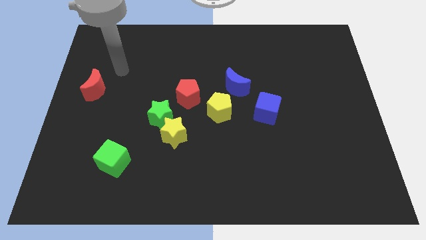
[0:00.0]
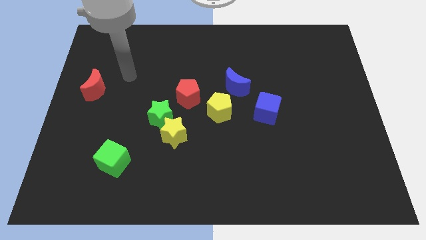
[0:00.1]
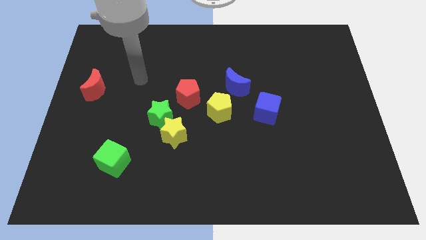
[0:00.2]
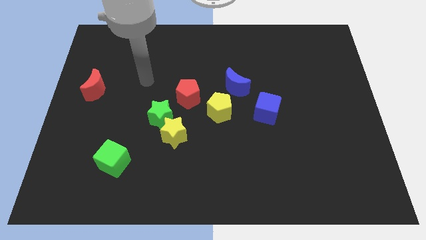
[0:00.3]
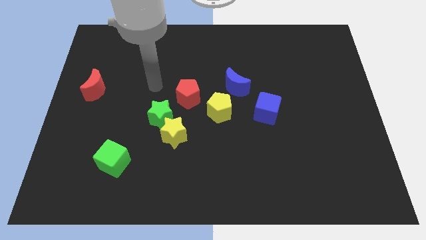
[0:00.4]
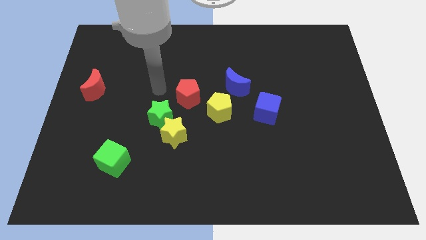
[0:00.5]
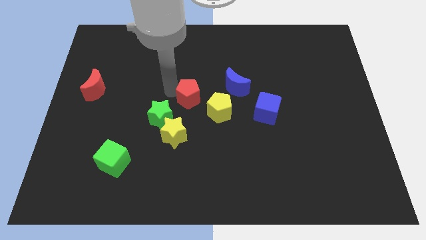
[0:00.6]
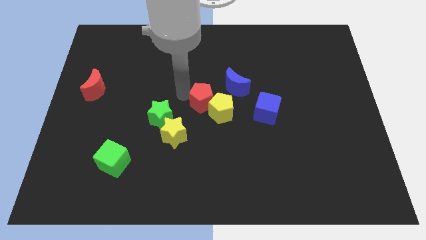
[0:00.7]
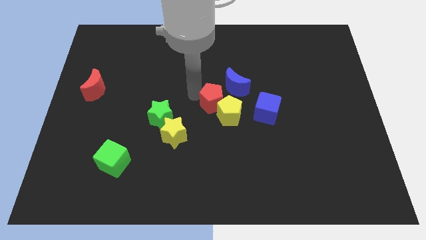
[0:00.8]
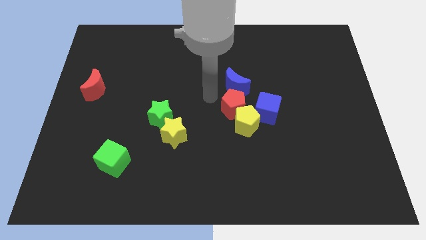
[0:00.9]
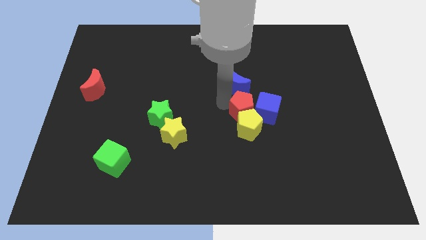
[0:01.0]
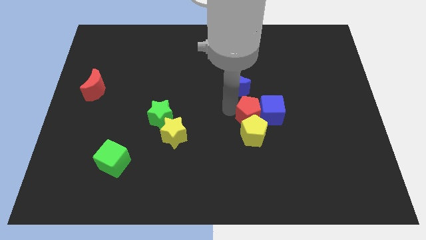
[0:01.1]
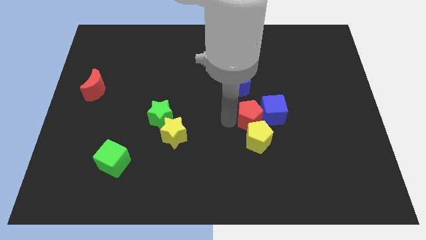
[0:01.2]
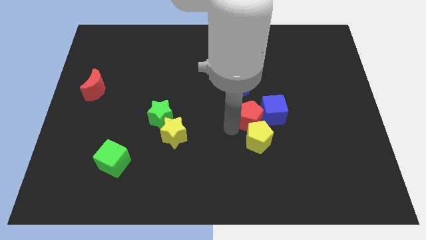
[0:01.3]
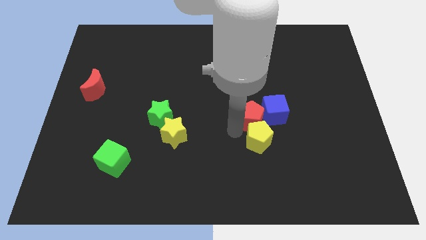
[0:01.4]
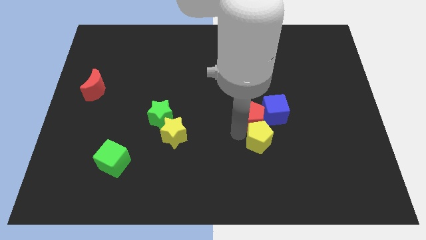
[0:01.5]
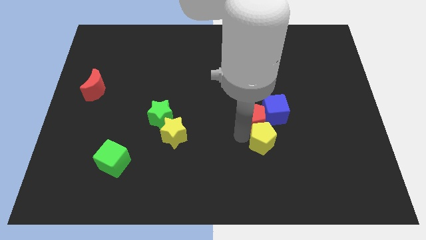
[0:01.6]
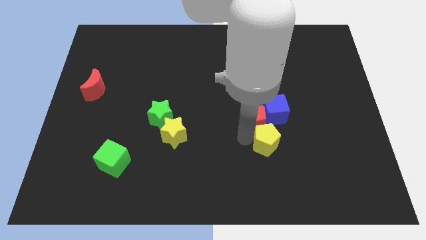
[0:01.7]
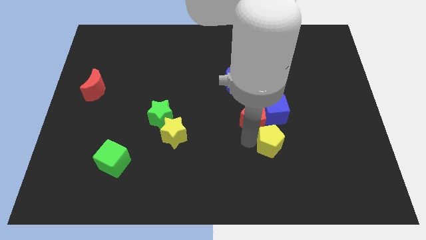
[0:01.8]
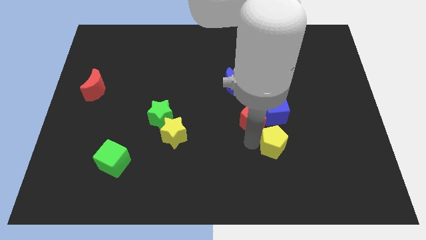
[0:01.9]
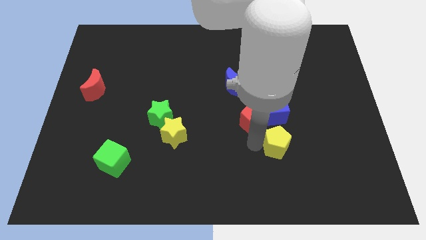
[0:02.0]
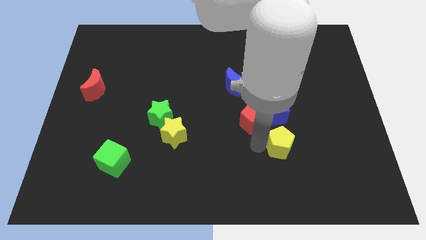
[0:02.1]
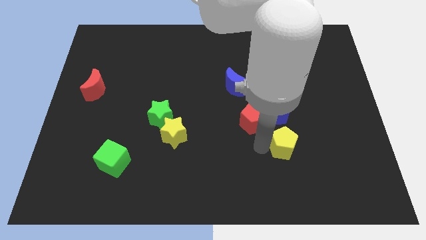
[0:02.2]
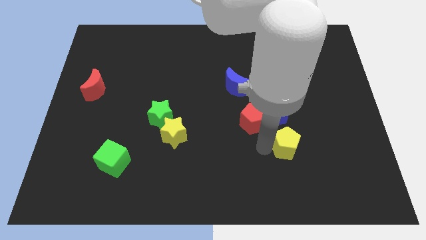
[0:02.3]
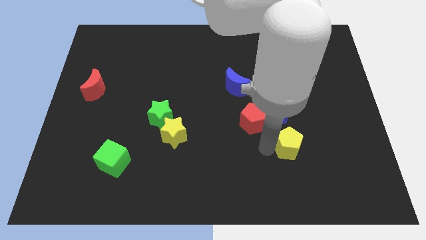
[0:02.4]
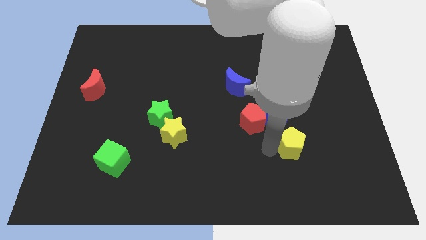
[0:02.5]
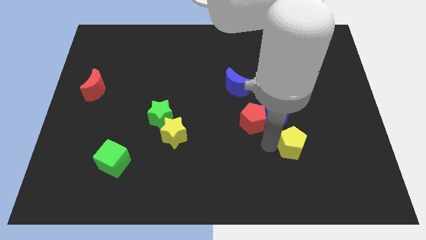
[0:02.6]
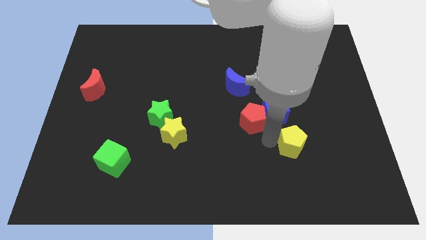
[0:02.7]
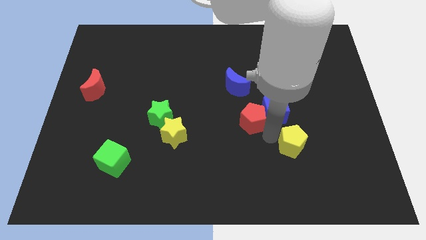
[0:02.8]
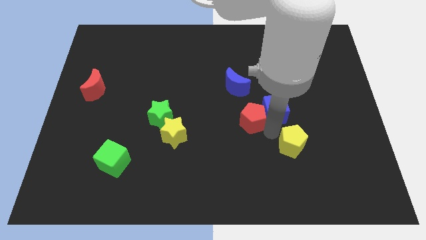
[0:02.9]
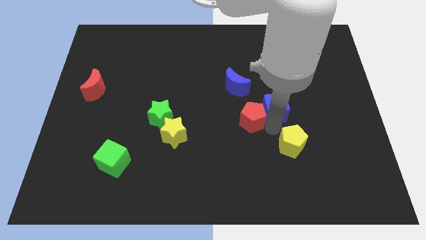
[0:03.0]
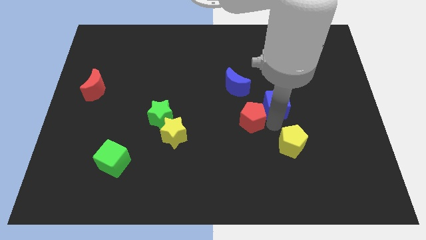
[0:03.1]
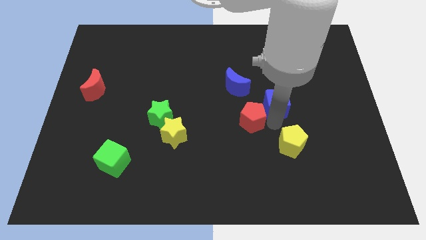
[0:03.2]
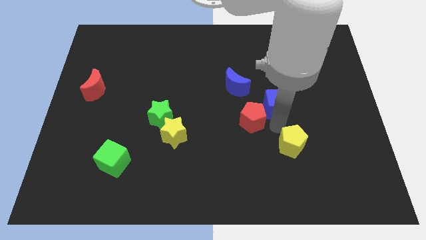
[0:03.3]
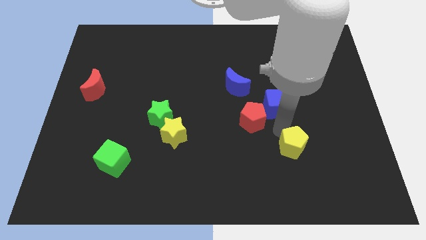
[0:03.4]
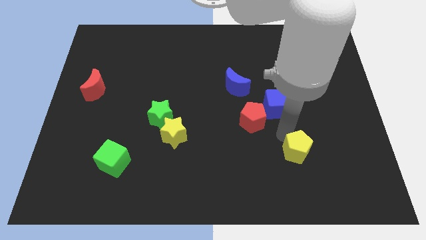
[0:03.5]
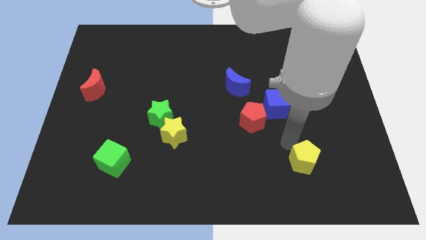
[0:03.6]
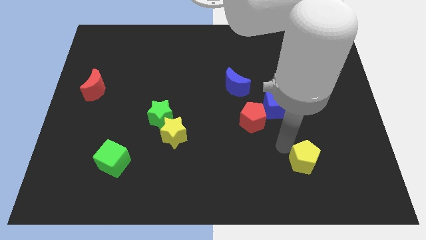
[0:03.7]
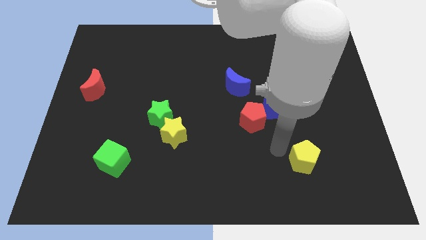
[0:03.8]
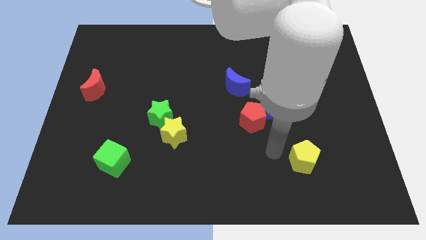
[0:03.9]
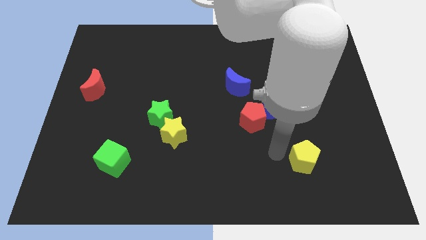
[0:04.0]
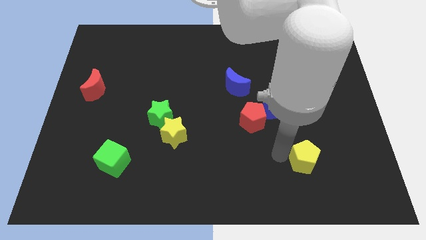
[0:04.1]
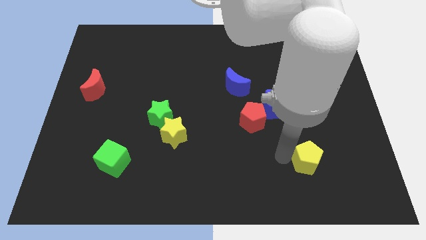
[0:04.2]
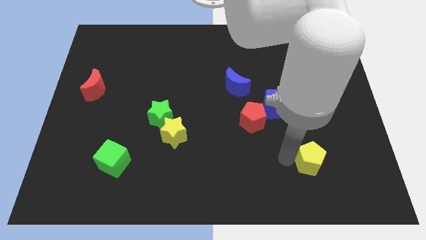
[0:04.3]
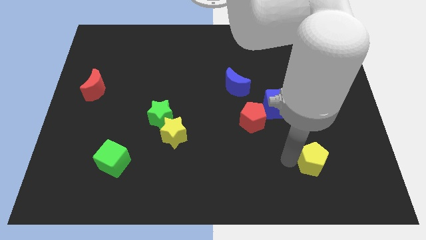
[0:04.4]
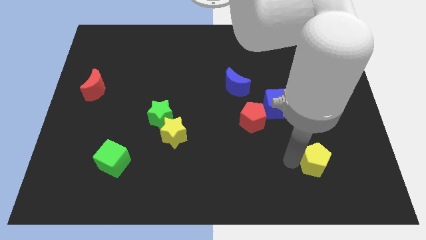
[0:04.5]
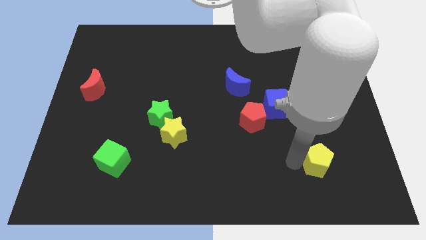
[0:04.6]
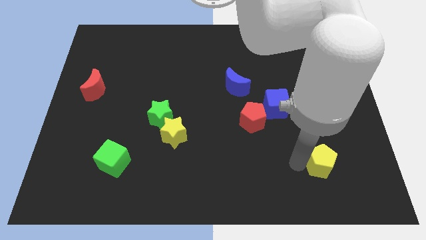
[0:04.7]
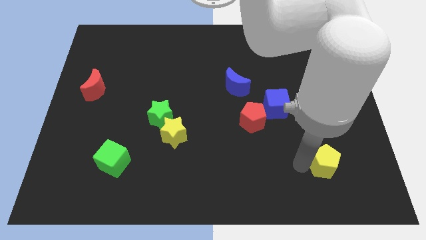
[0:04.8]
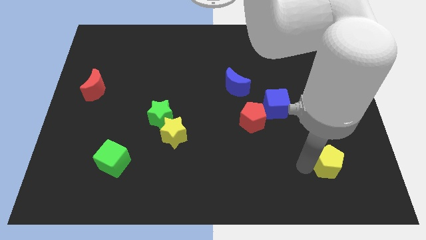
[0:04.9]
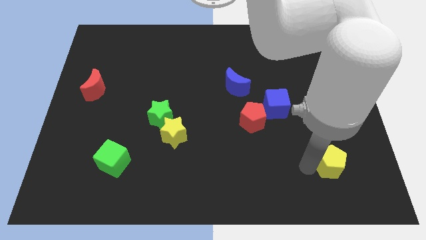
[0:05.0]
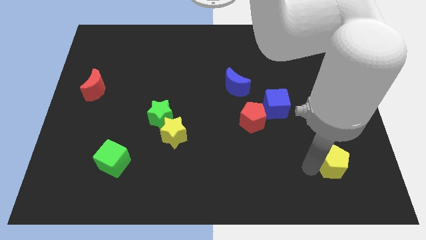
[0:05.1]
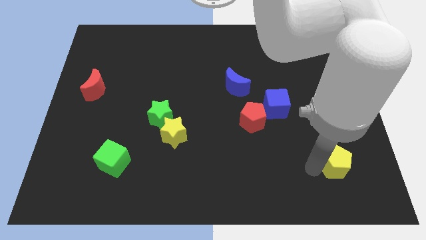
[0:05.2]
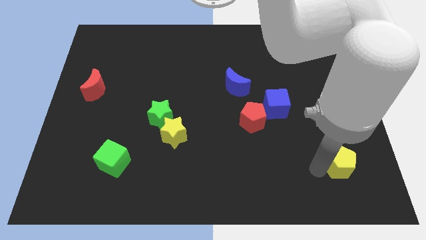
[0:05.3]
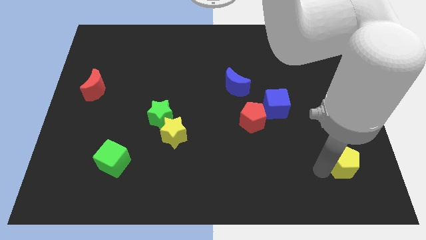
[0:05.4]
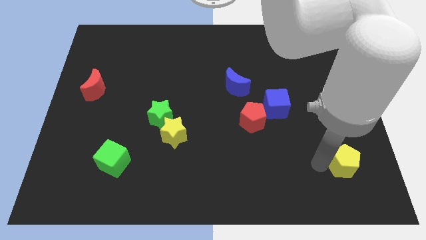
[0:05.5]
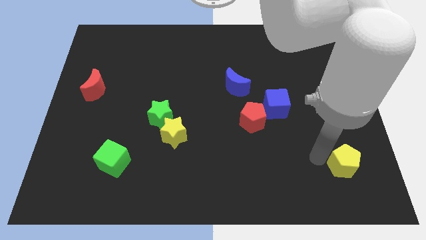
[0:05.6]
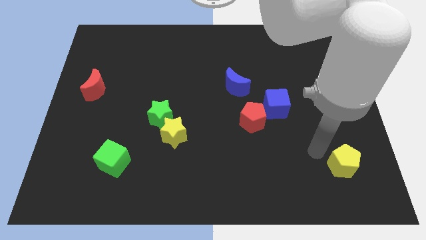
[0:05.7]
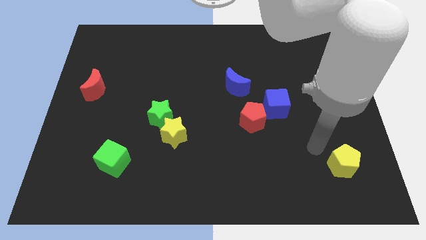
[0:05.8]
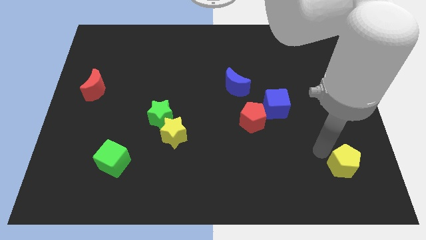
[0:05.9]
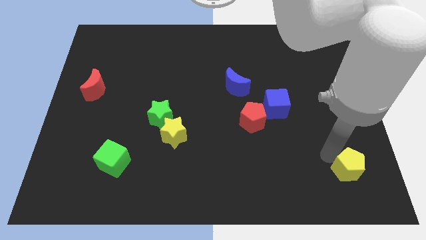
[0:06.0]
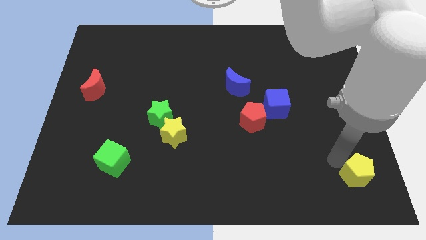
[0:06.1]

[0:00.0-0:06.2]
slide the yellow pentagon to the bottom right of the board

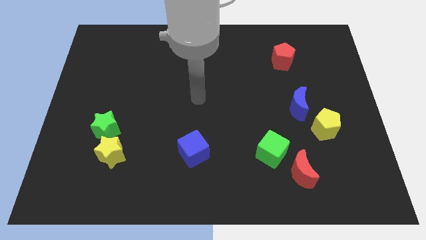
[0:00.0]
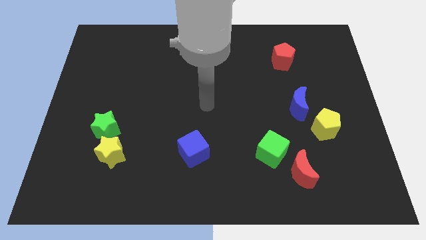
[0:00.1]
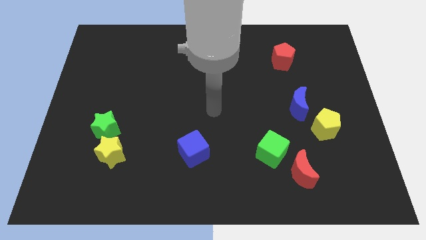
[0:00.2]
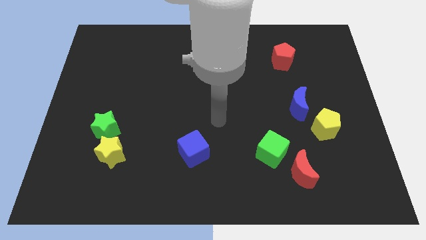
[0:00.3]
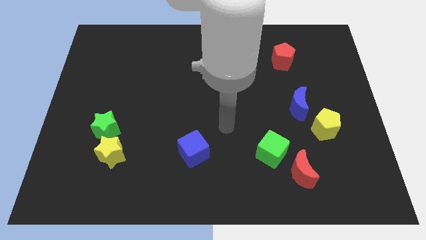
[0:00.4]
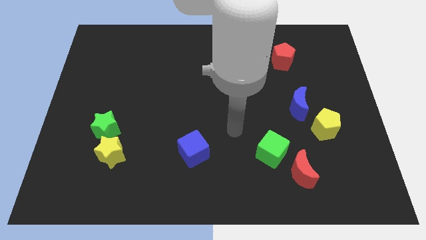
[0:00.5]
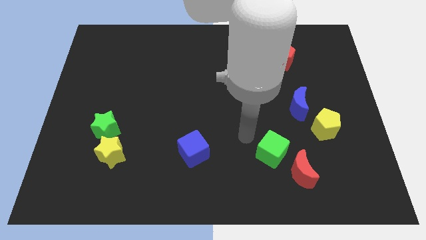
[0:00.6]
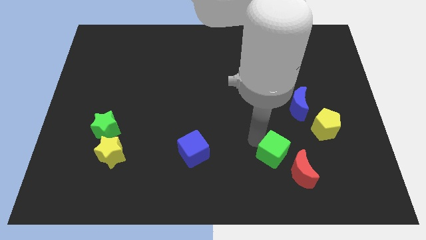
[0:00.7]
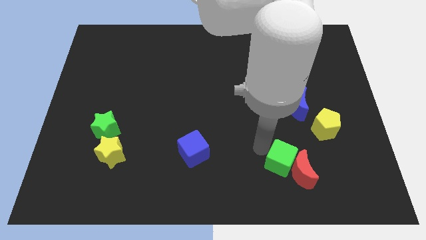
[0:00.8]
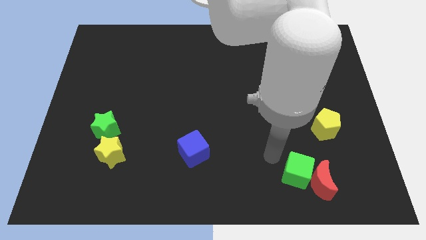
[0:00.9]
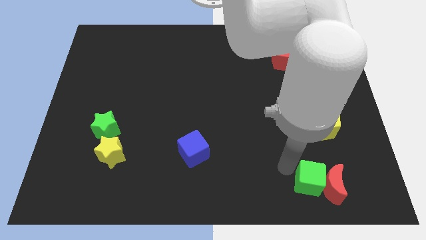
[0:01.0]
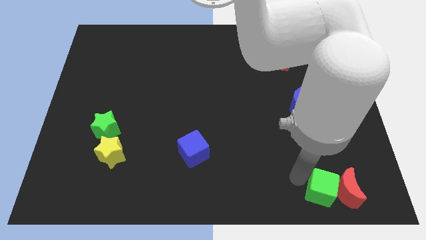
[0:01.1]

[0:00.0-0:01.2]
push the red moon to the bottom right of the board
